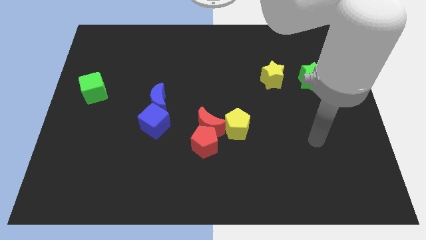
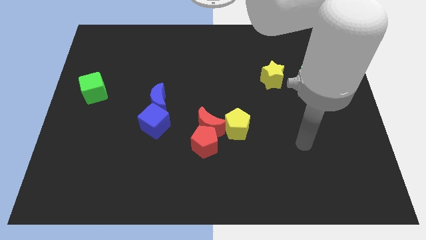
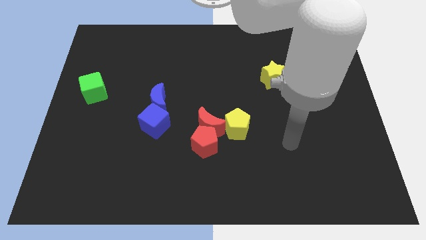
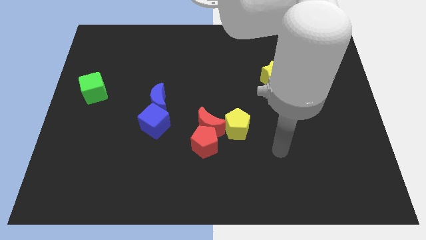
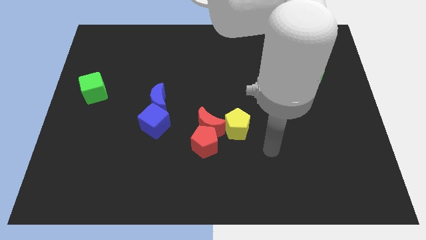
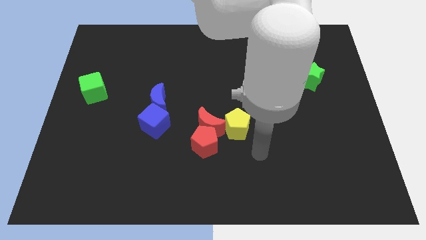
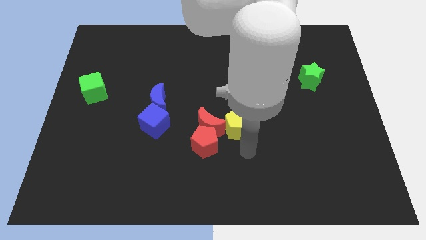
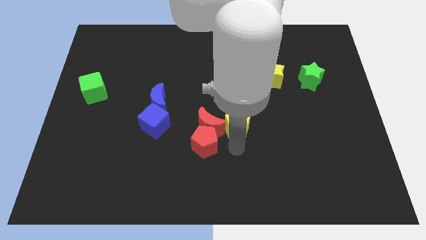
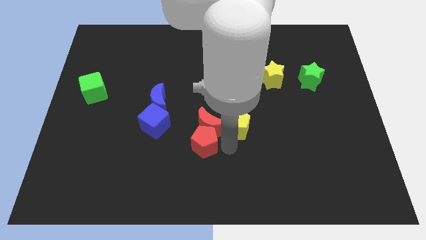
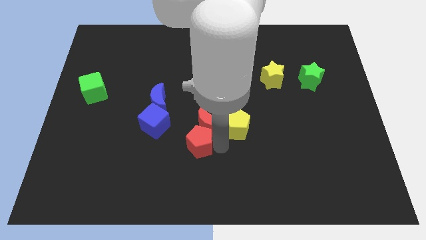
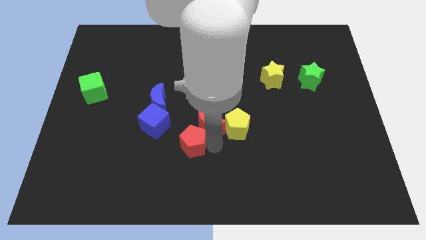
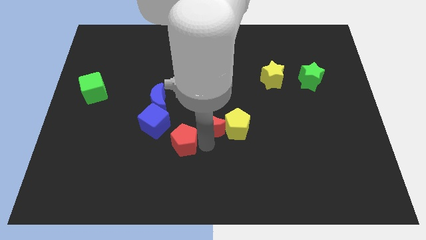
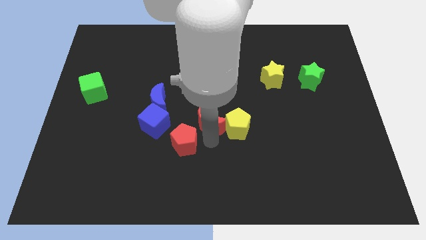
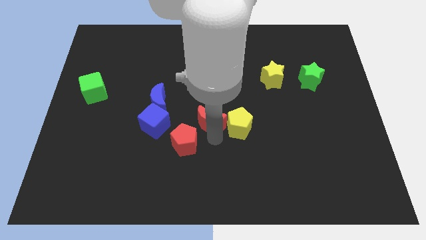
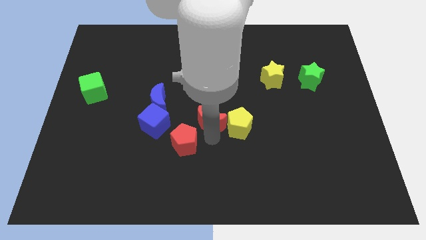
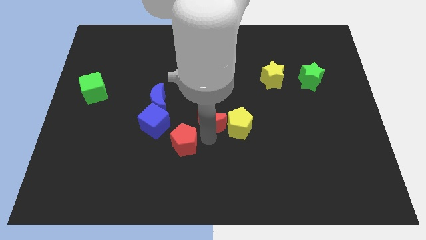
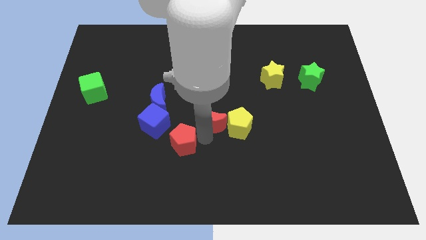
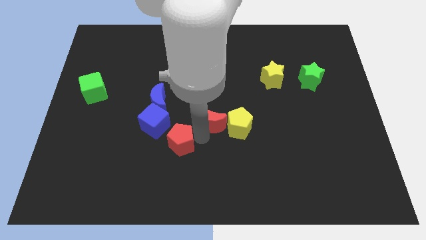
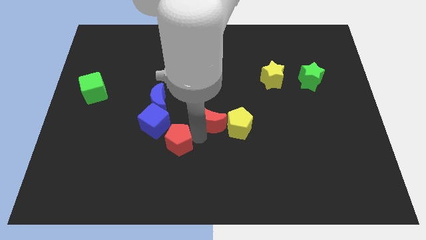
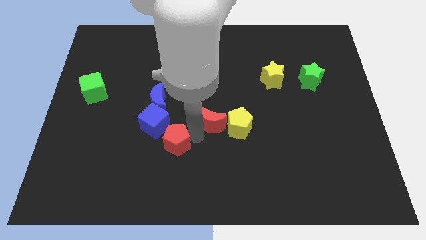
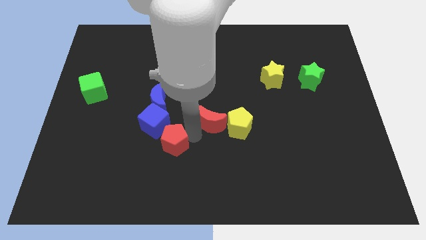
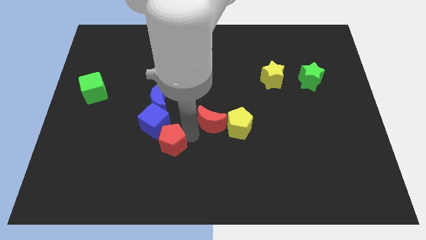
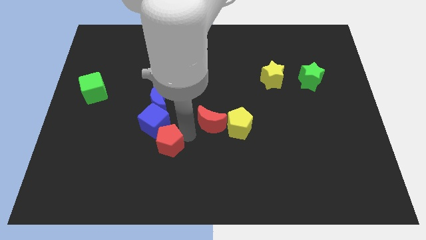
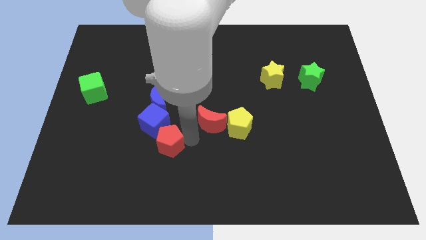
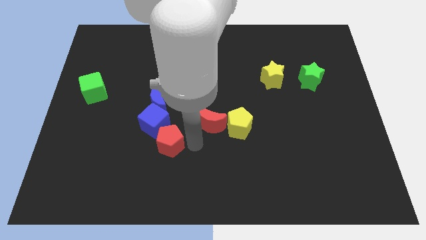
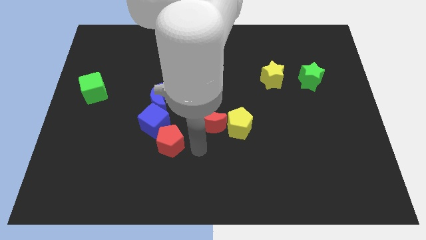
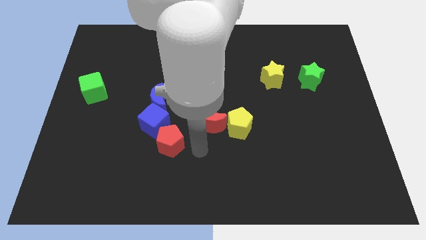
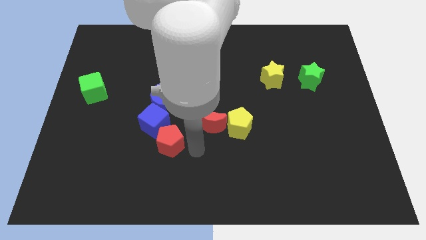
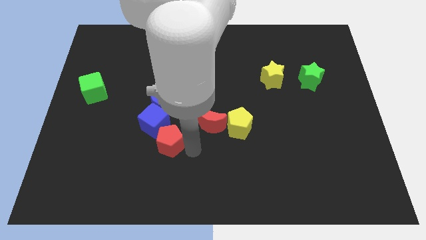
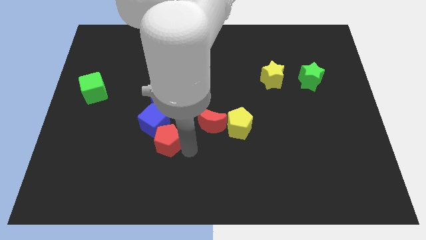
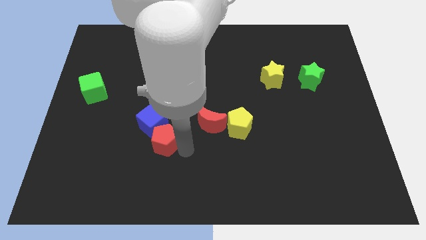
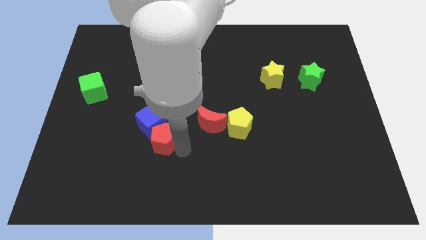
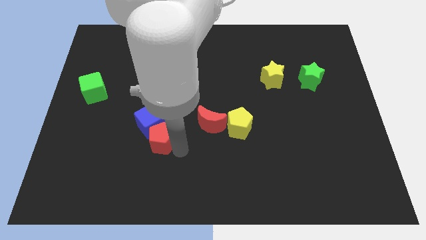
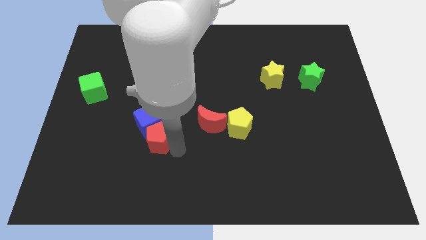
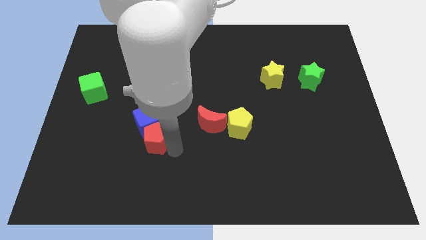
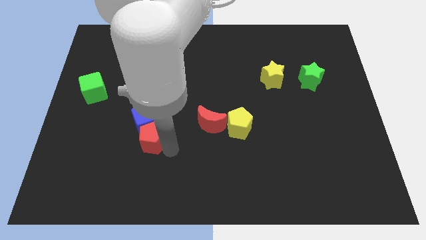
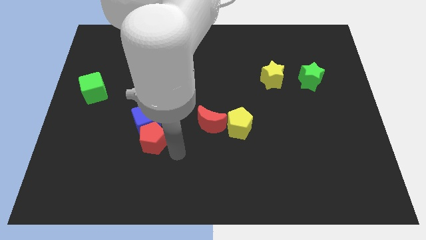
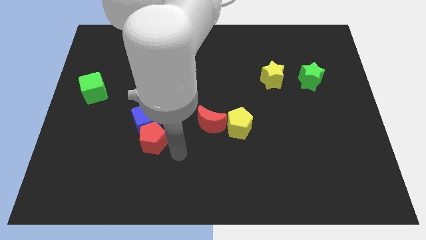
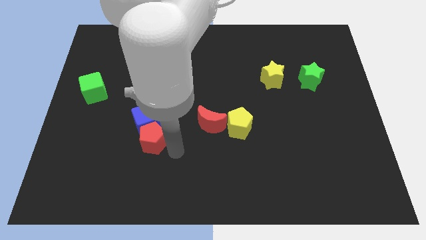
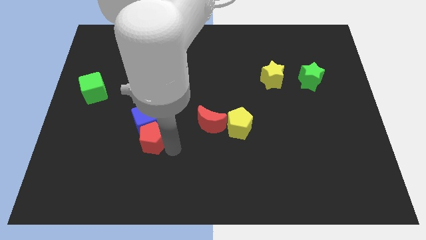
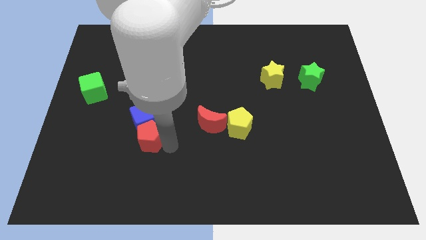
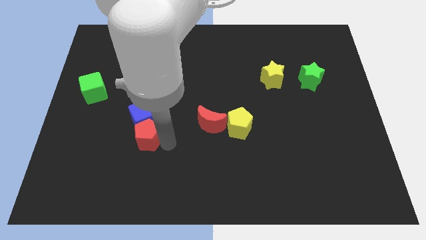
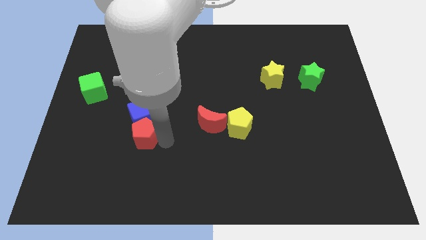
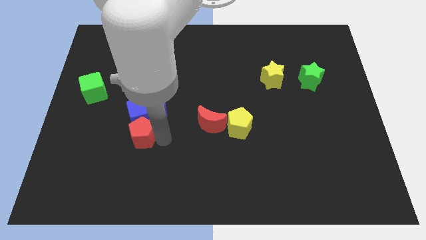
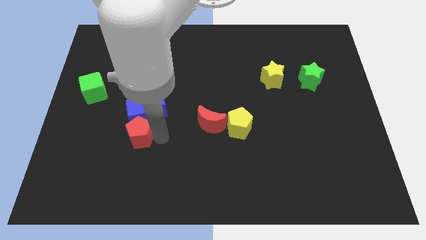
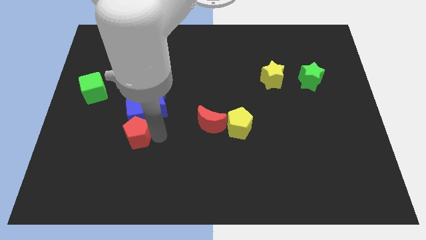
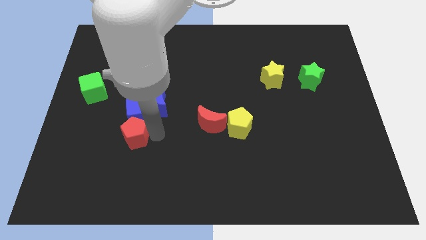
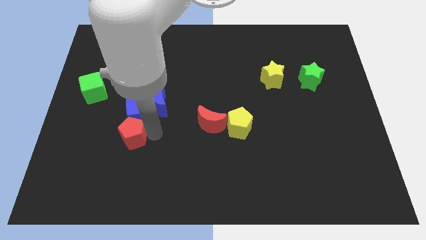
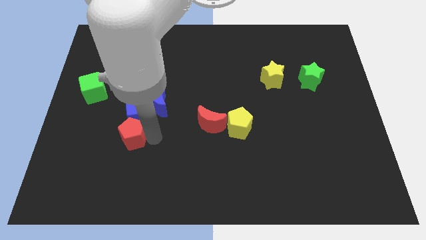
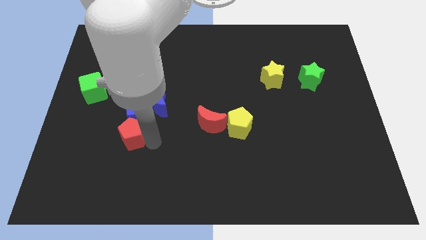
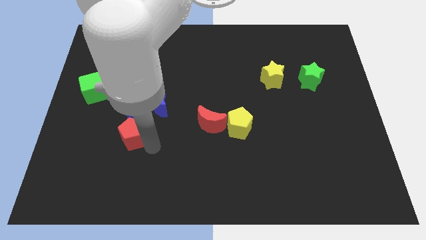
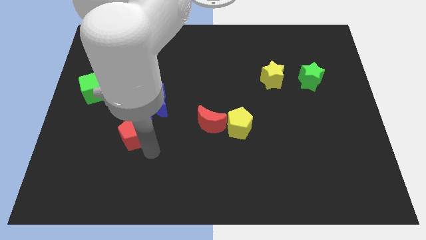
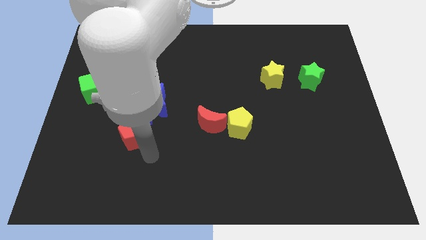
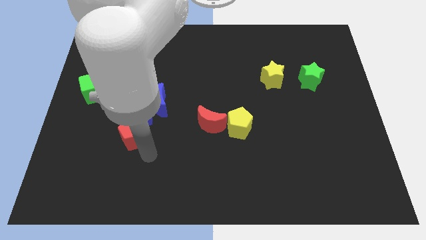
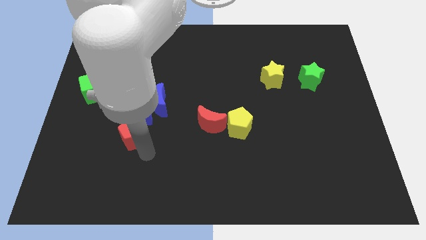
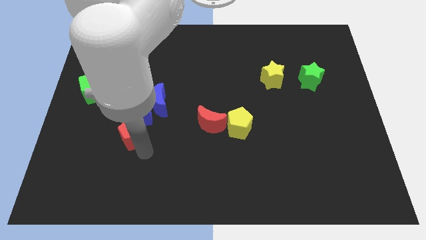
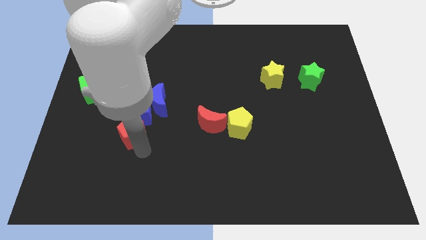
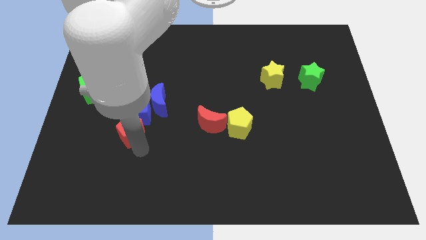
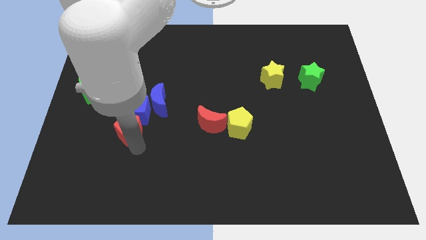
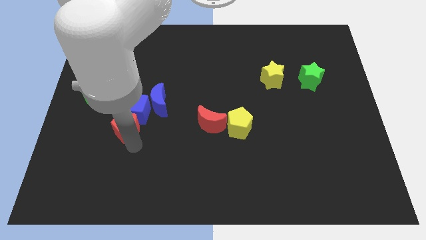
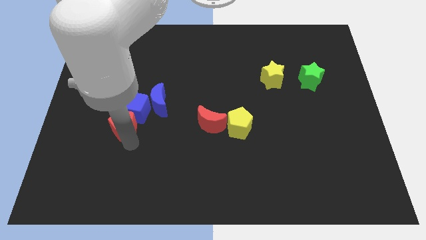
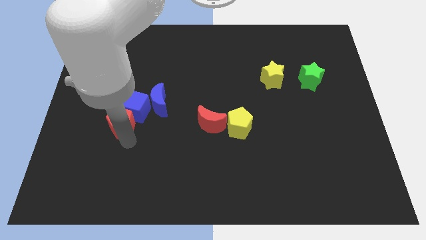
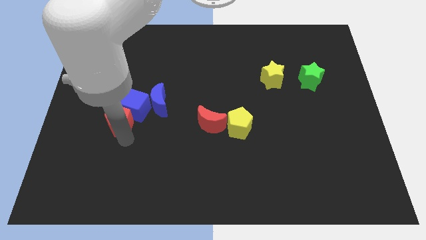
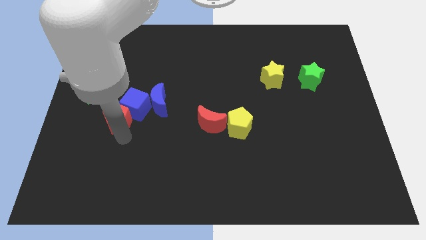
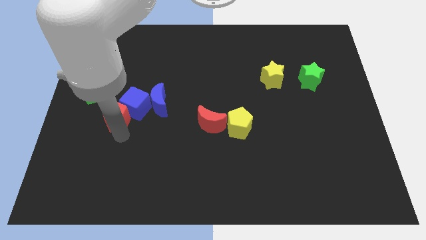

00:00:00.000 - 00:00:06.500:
move the red pentagon to the left side of the blue moon

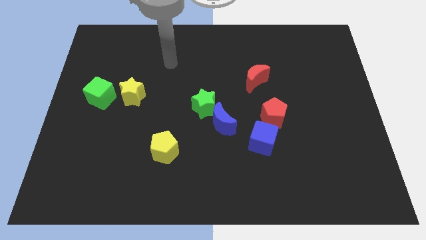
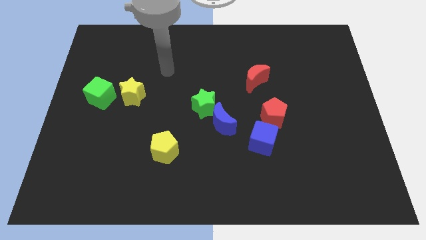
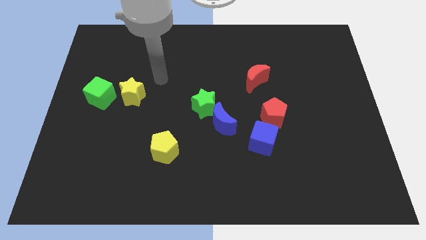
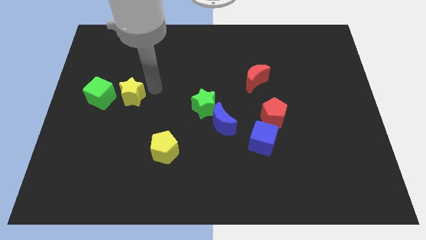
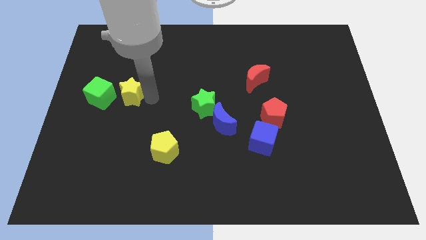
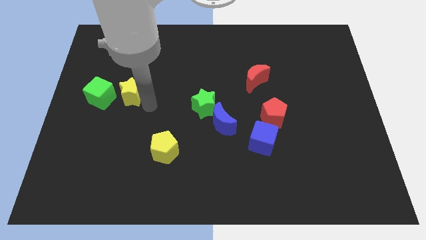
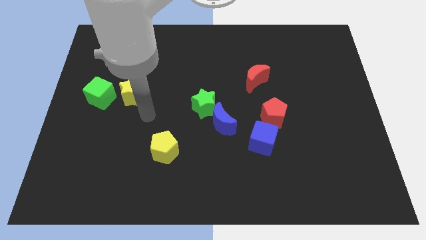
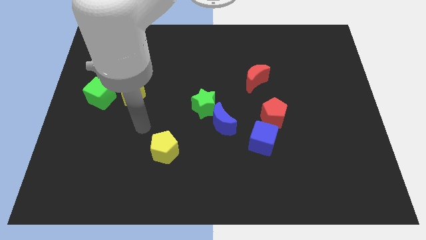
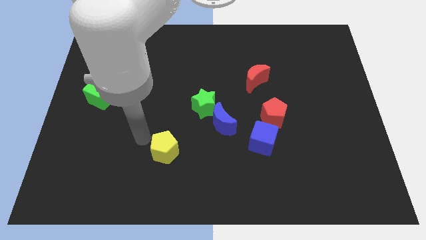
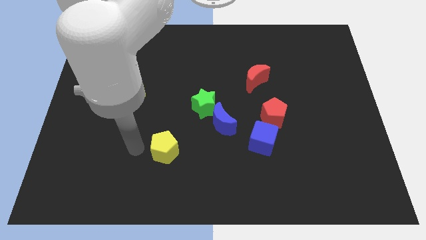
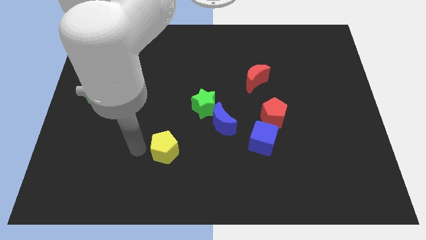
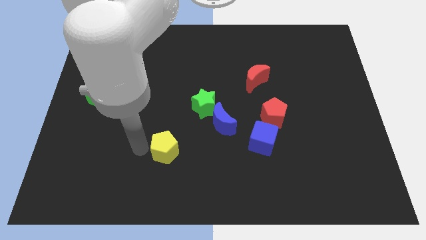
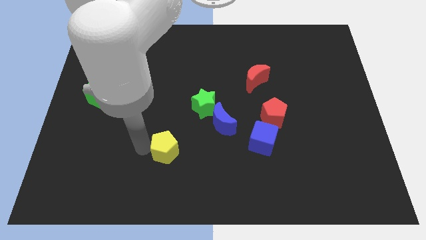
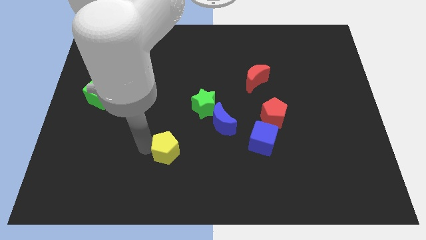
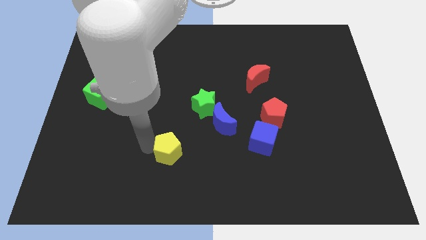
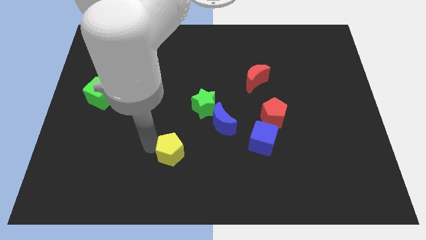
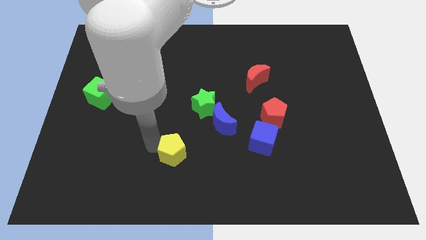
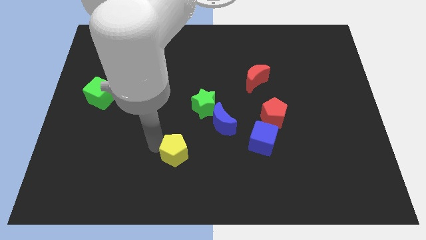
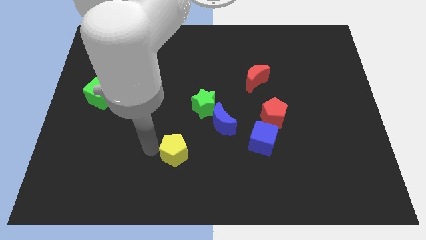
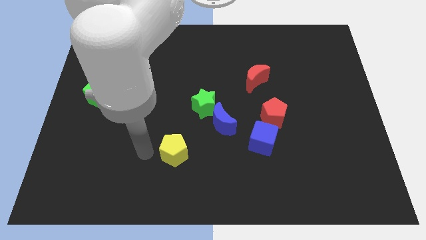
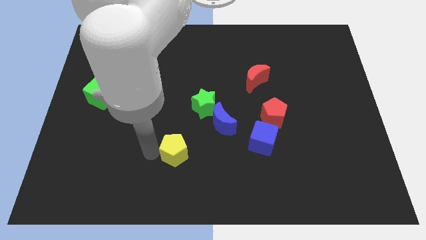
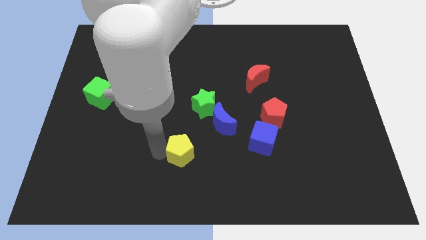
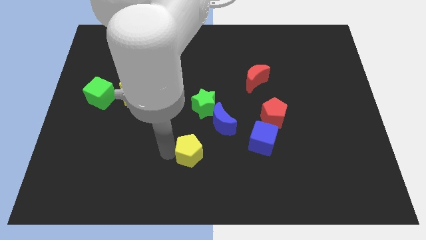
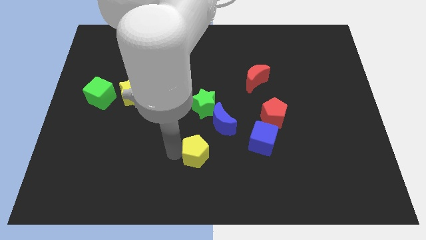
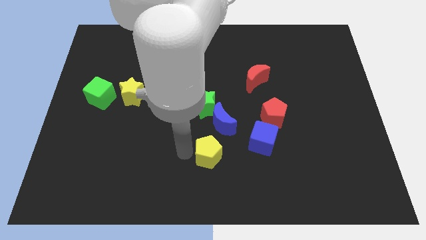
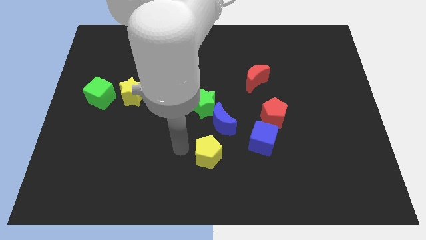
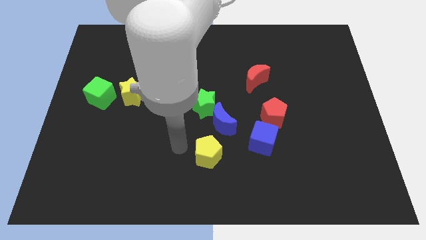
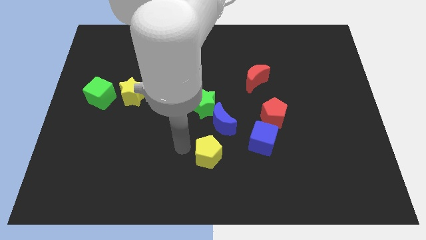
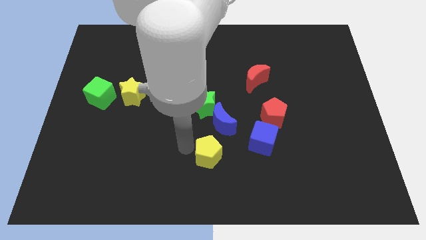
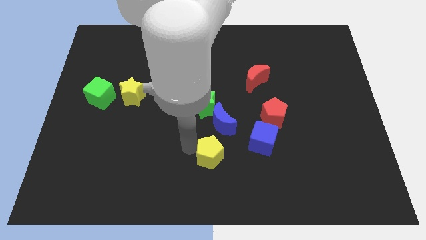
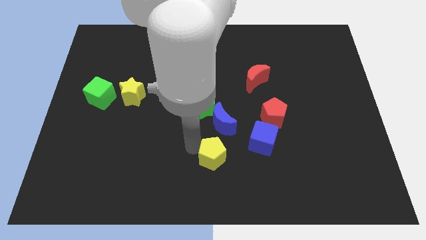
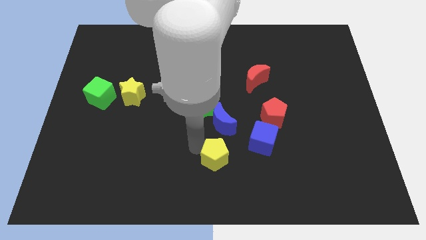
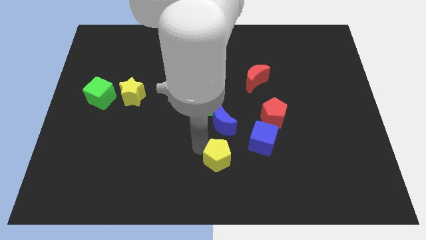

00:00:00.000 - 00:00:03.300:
put the yellow pentagon to the bottom left of the blue cube
